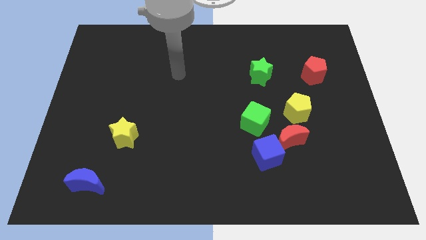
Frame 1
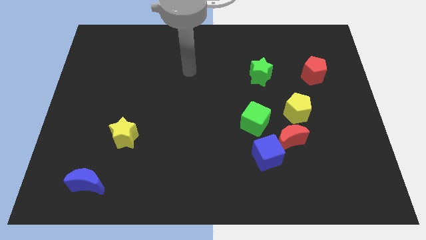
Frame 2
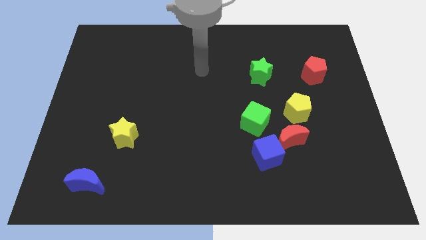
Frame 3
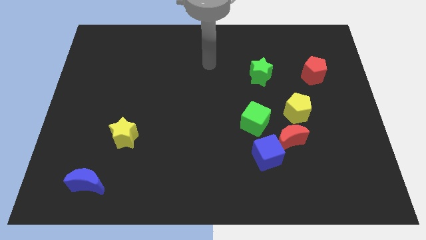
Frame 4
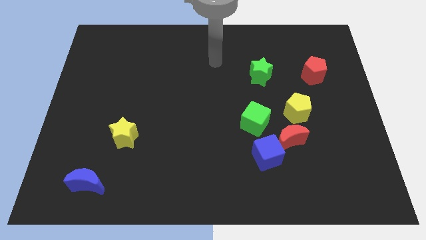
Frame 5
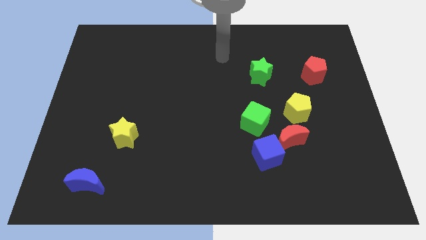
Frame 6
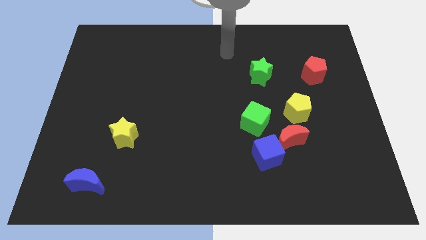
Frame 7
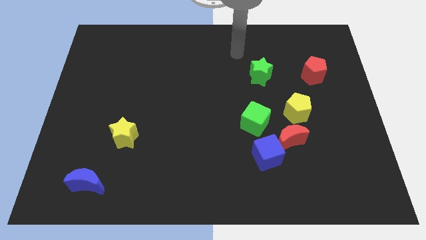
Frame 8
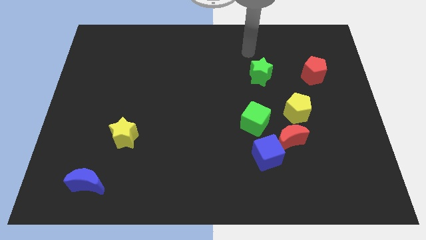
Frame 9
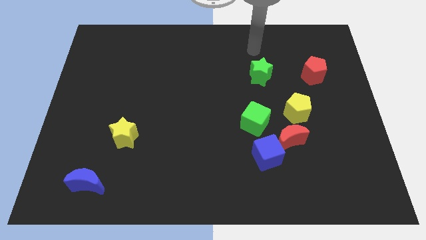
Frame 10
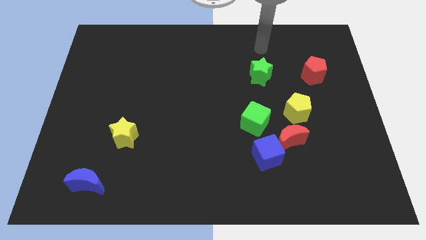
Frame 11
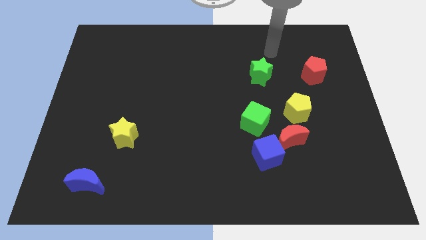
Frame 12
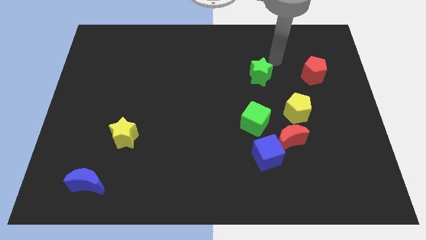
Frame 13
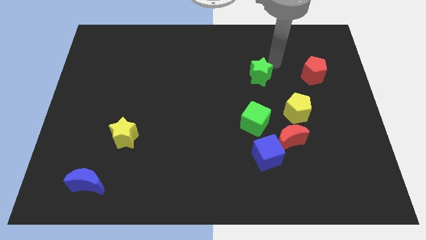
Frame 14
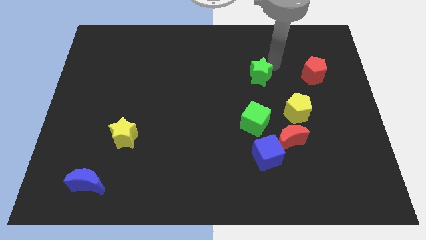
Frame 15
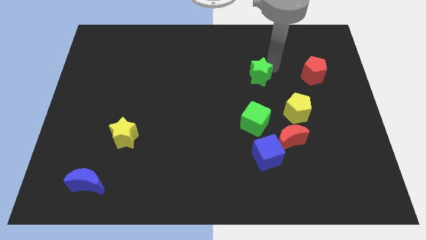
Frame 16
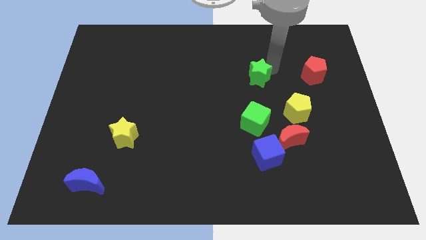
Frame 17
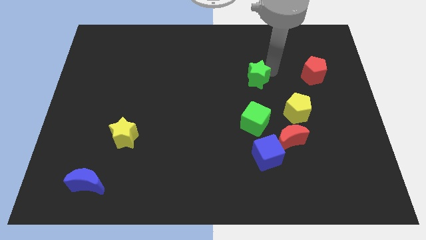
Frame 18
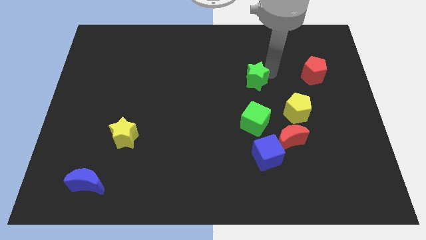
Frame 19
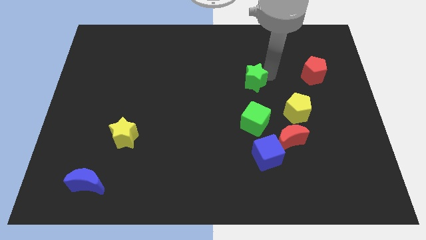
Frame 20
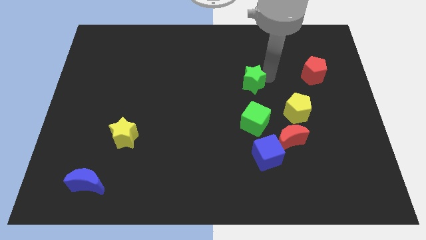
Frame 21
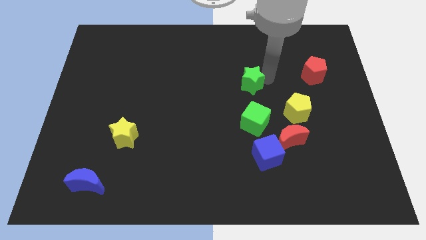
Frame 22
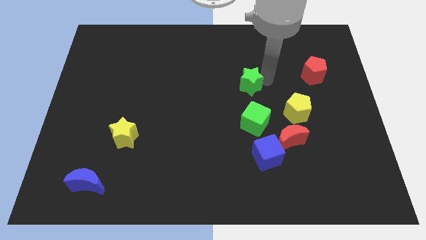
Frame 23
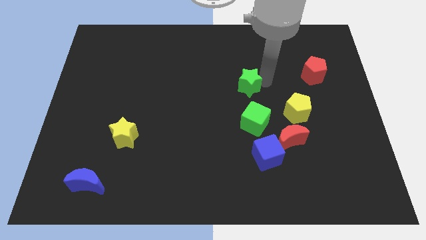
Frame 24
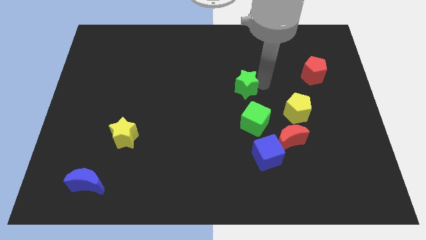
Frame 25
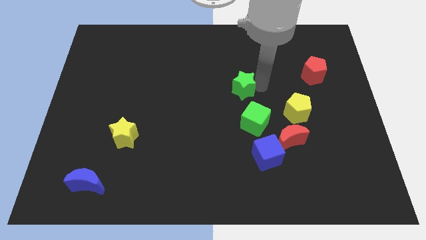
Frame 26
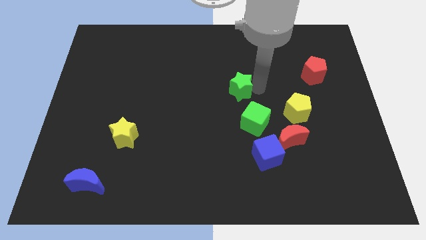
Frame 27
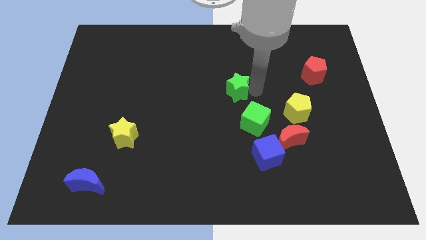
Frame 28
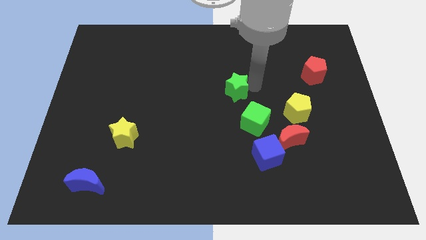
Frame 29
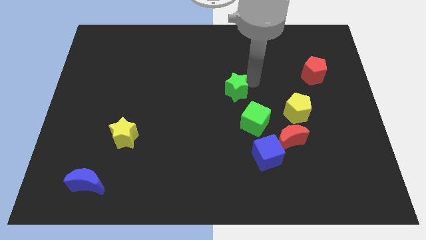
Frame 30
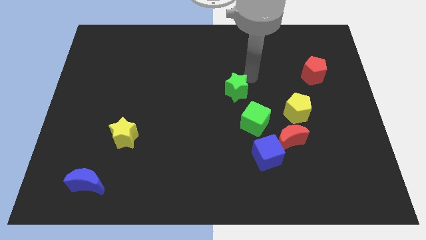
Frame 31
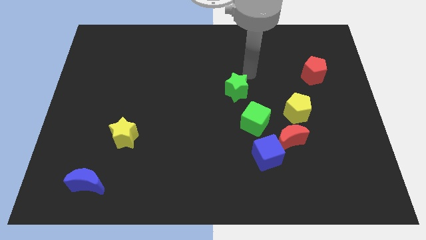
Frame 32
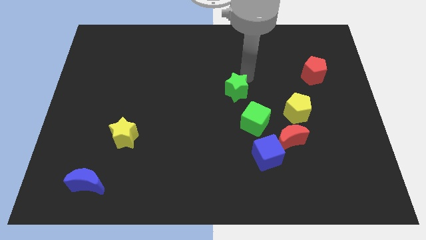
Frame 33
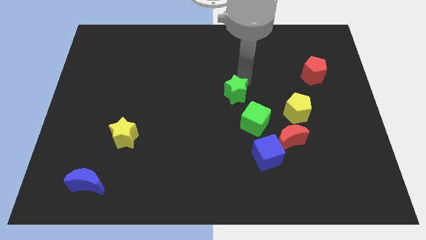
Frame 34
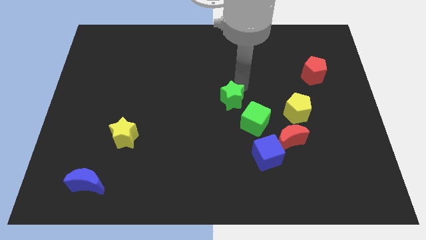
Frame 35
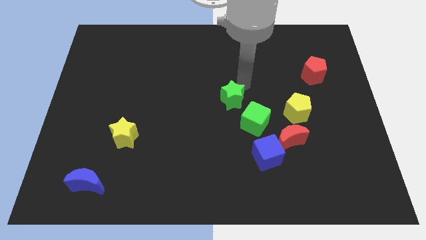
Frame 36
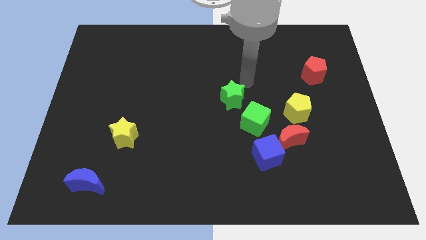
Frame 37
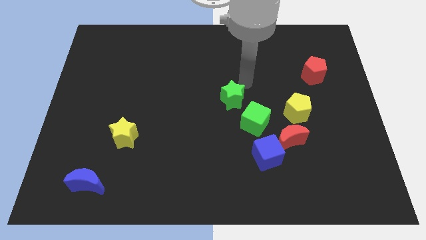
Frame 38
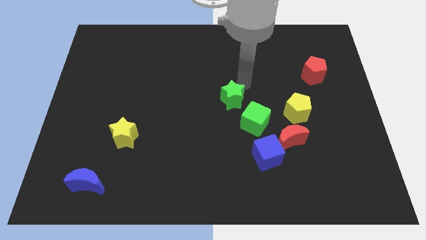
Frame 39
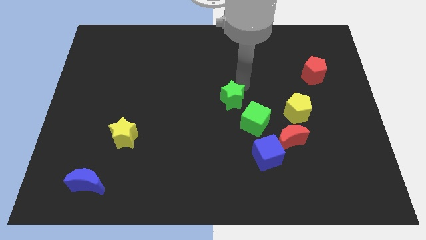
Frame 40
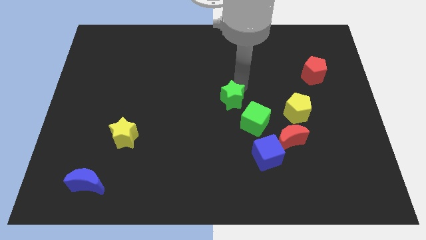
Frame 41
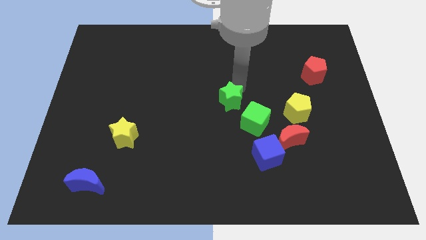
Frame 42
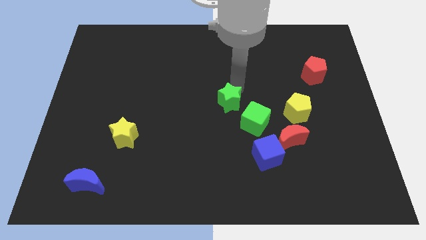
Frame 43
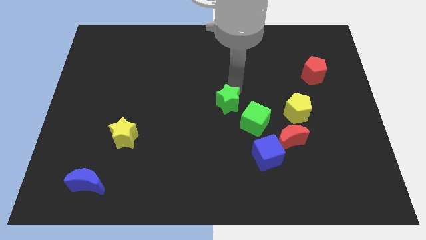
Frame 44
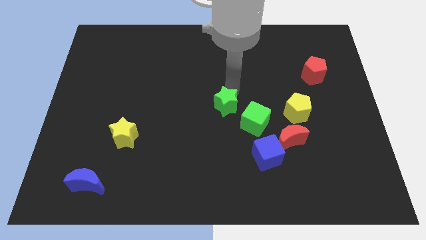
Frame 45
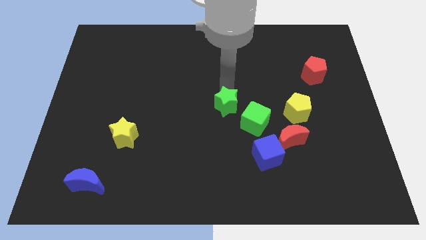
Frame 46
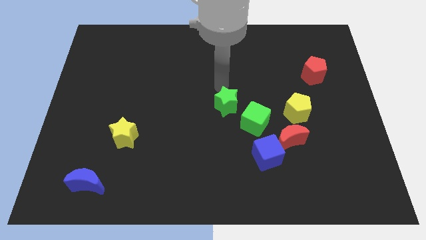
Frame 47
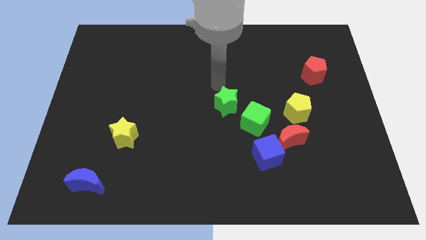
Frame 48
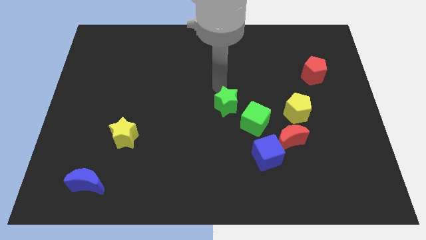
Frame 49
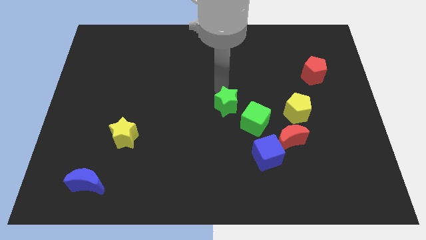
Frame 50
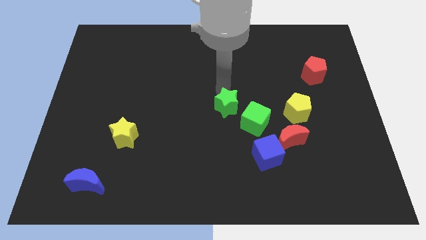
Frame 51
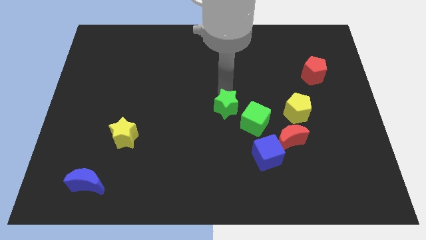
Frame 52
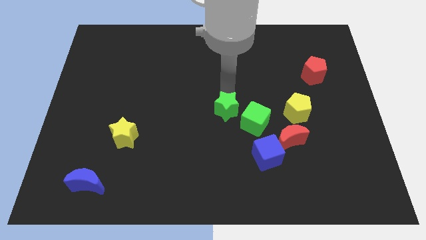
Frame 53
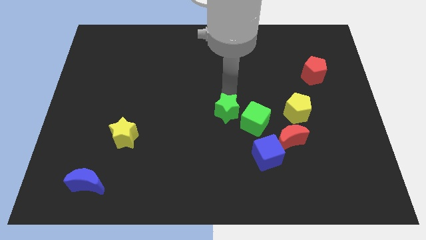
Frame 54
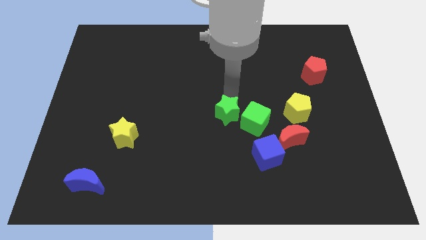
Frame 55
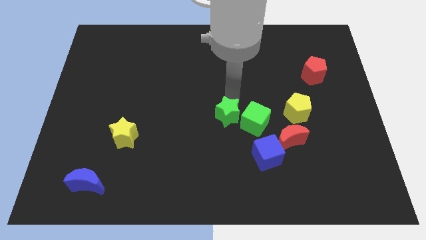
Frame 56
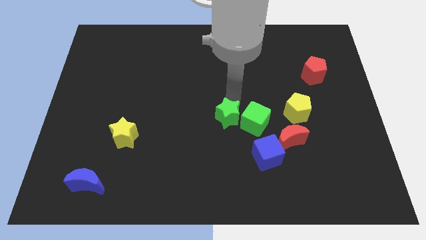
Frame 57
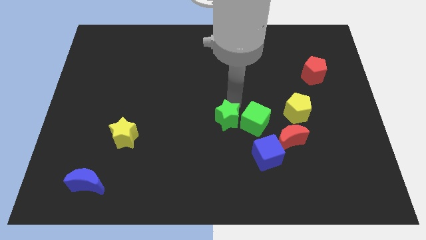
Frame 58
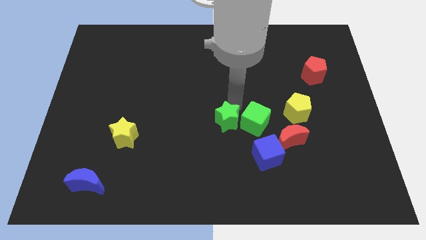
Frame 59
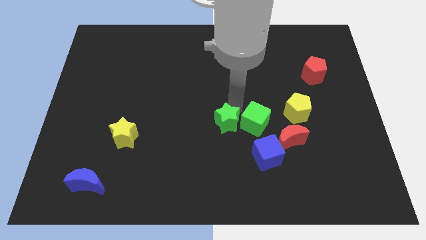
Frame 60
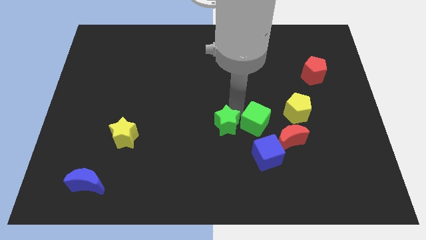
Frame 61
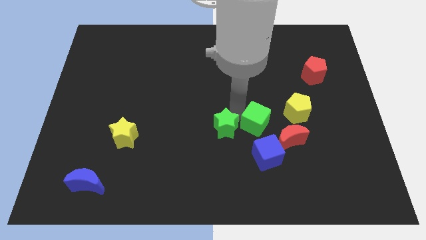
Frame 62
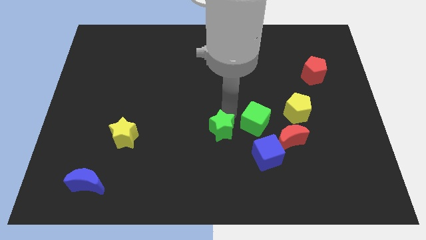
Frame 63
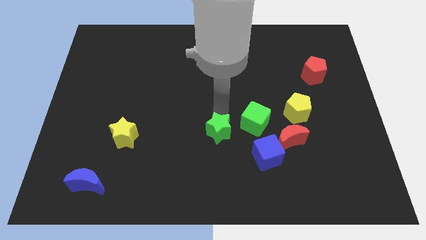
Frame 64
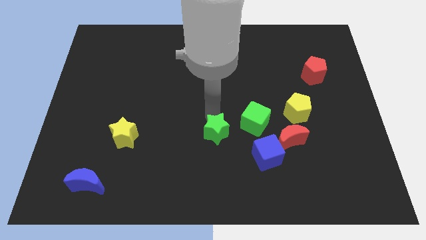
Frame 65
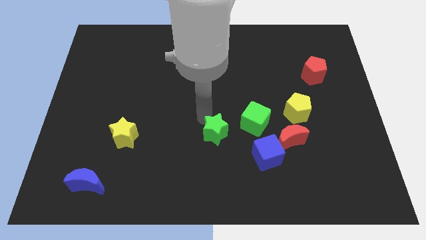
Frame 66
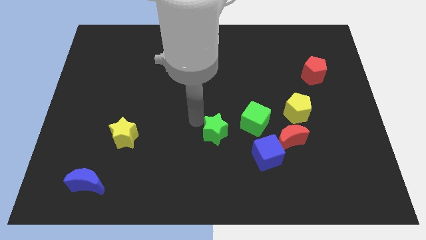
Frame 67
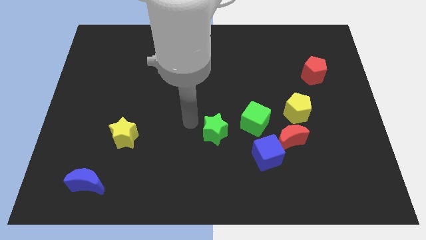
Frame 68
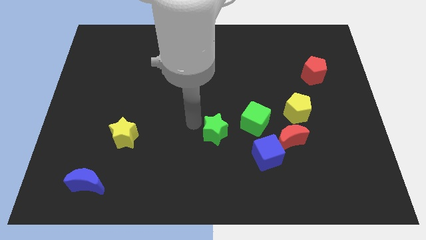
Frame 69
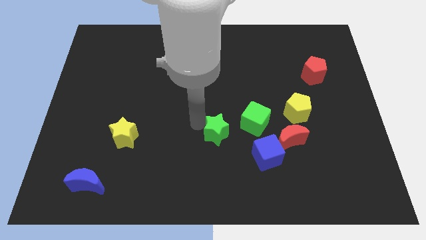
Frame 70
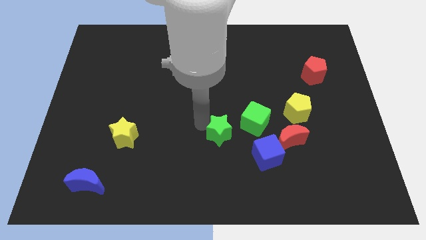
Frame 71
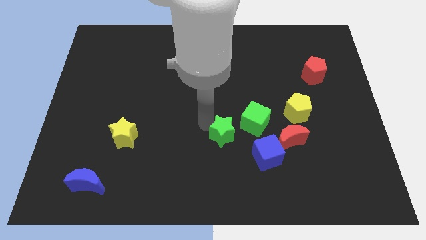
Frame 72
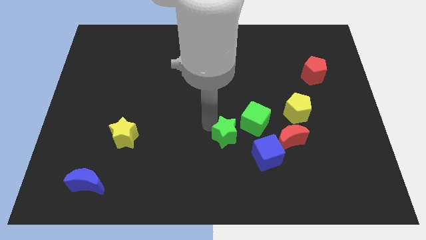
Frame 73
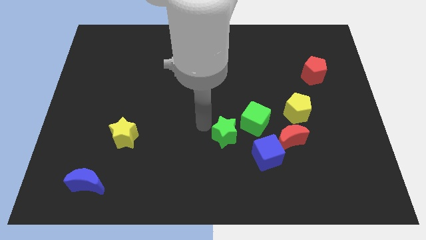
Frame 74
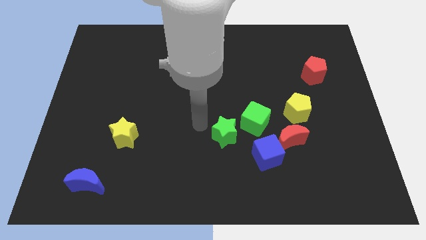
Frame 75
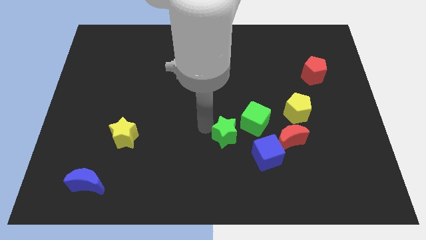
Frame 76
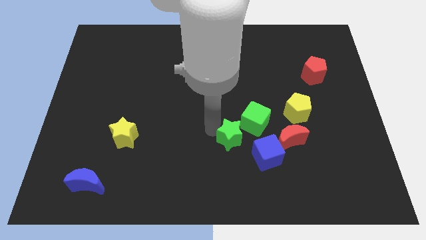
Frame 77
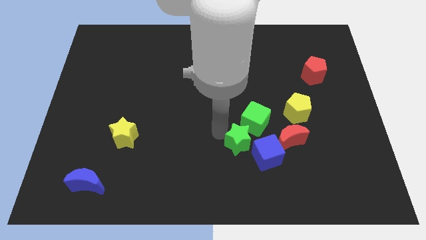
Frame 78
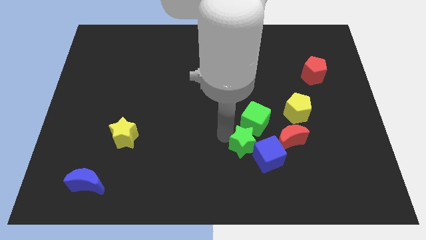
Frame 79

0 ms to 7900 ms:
push the green star next to the blue cube
